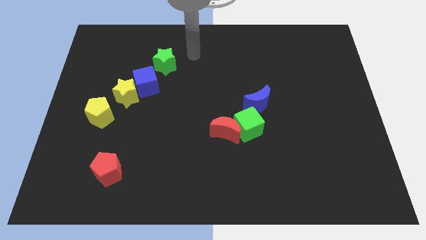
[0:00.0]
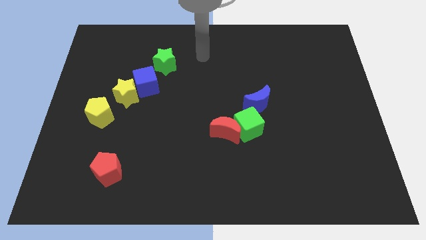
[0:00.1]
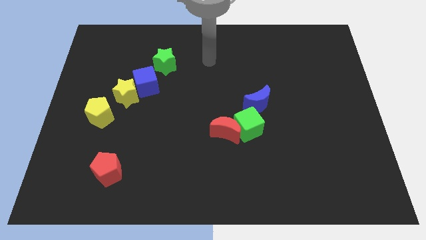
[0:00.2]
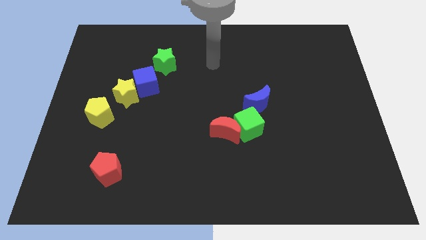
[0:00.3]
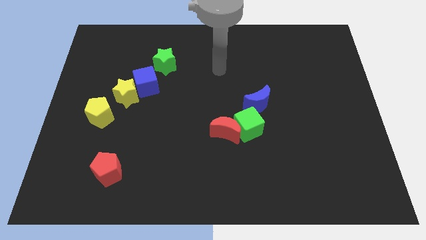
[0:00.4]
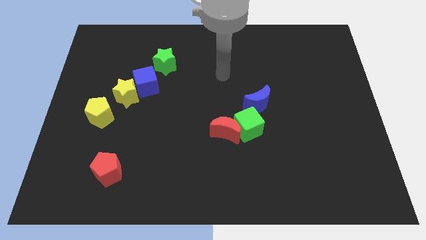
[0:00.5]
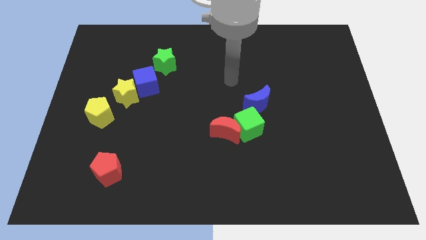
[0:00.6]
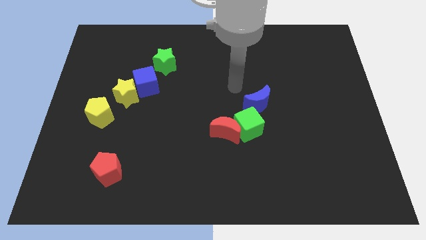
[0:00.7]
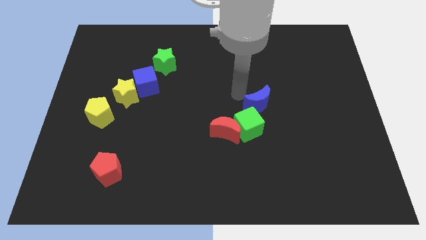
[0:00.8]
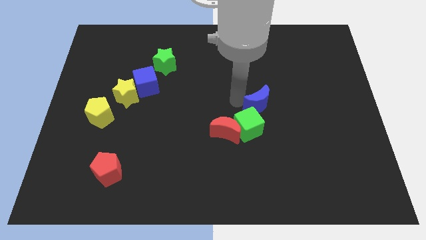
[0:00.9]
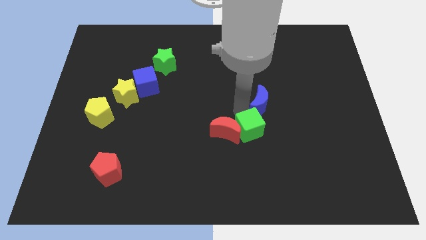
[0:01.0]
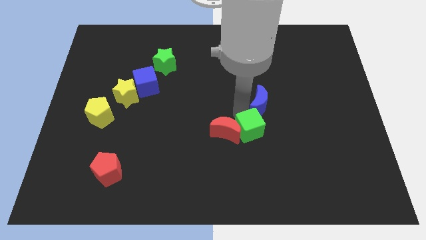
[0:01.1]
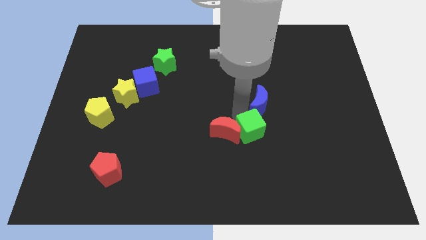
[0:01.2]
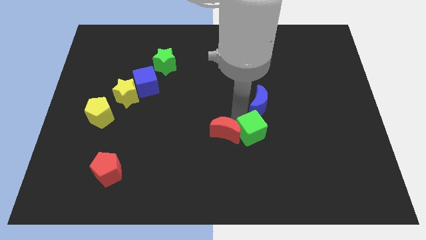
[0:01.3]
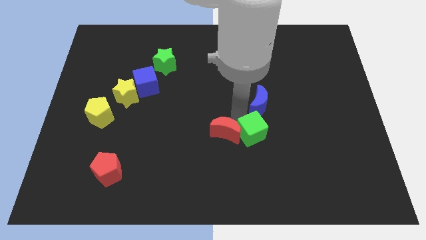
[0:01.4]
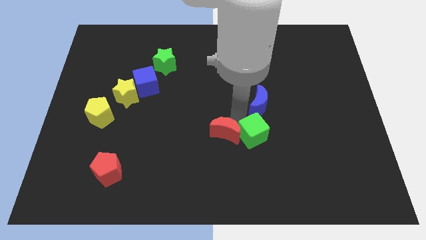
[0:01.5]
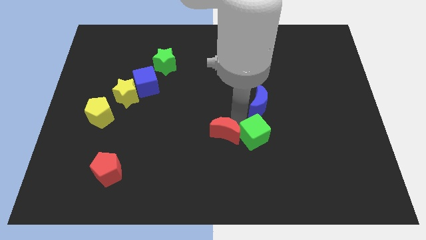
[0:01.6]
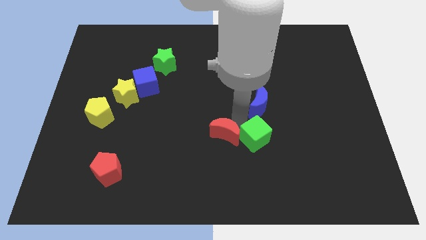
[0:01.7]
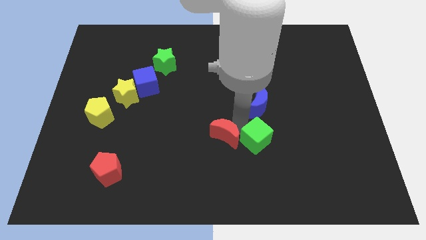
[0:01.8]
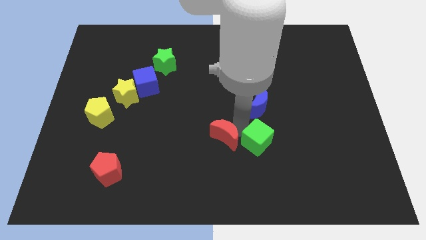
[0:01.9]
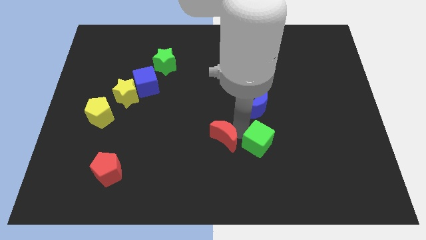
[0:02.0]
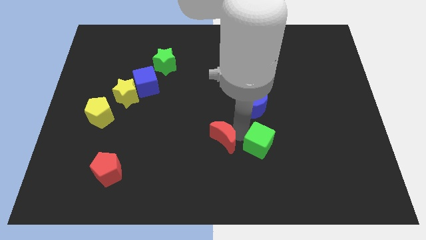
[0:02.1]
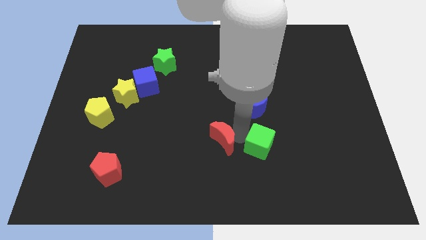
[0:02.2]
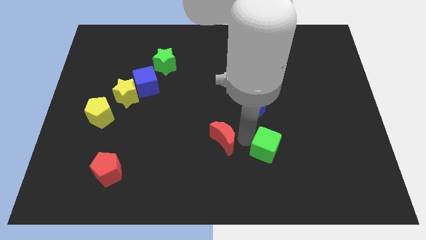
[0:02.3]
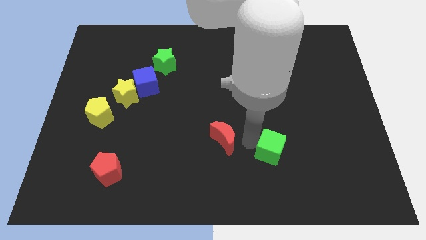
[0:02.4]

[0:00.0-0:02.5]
separate the red moon from the green cube

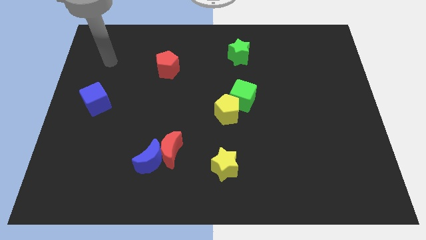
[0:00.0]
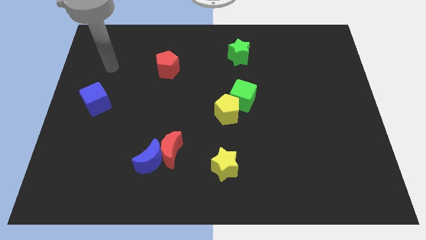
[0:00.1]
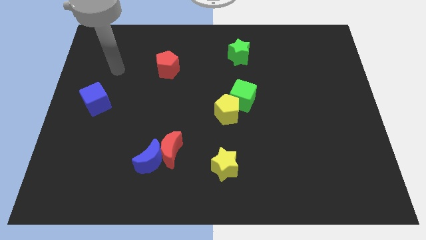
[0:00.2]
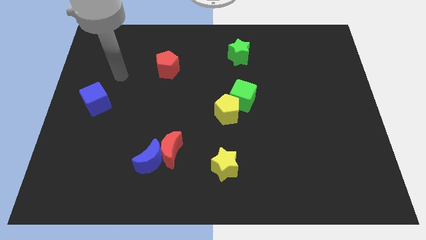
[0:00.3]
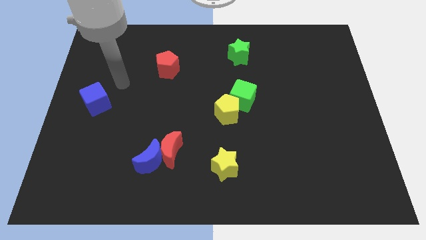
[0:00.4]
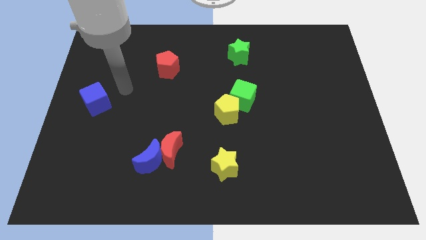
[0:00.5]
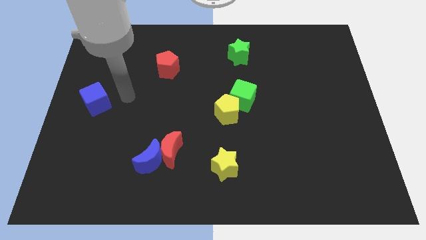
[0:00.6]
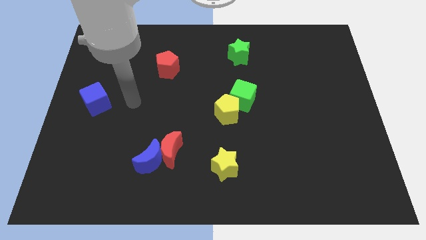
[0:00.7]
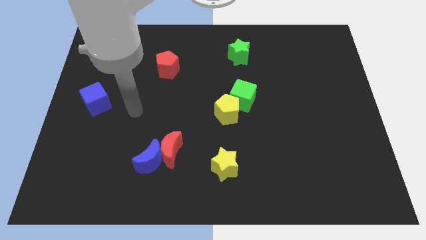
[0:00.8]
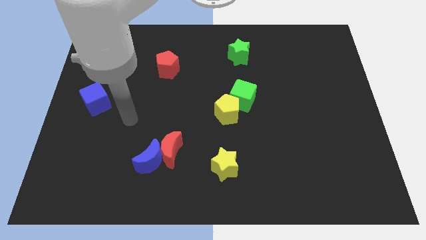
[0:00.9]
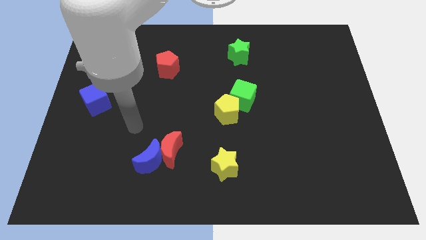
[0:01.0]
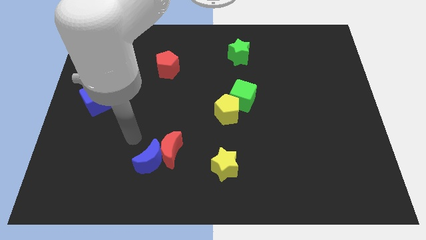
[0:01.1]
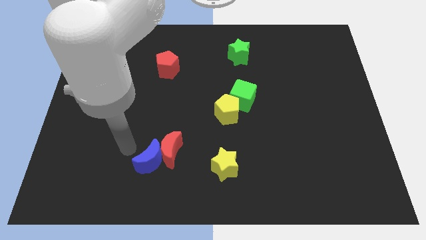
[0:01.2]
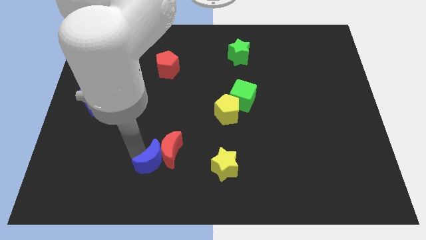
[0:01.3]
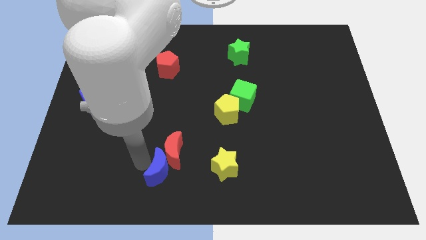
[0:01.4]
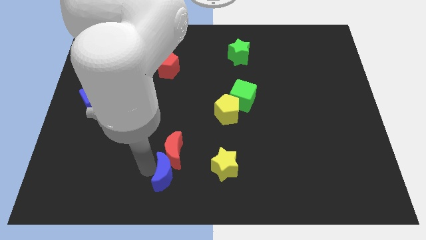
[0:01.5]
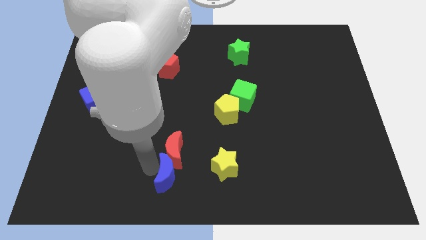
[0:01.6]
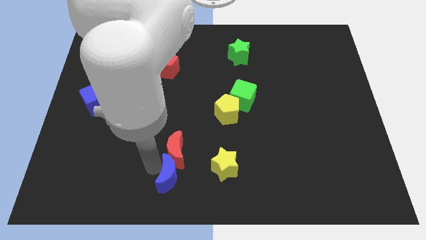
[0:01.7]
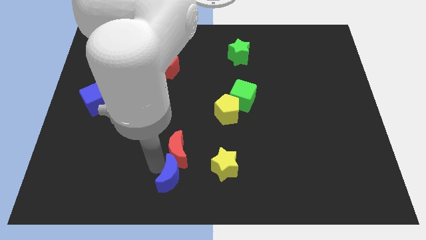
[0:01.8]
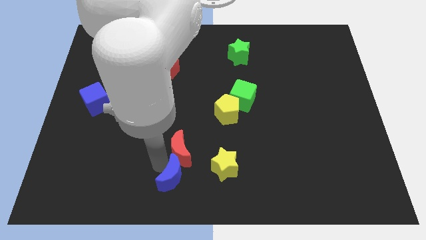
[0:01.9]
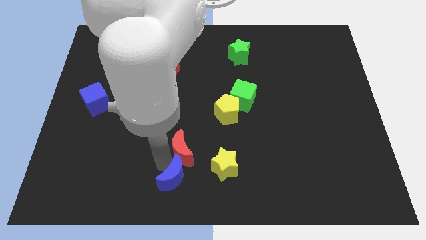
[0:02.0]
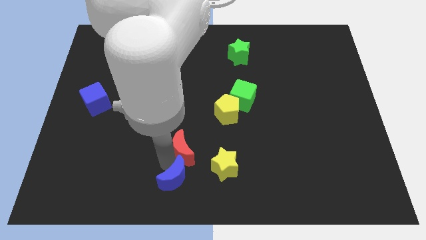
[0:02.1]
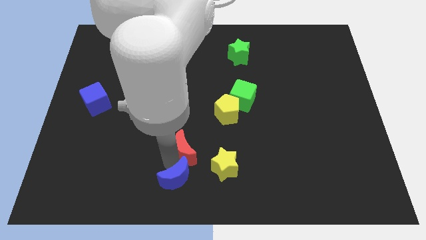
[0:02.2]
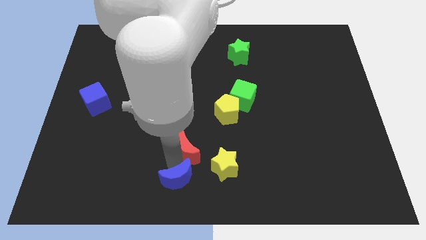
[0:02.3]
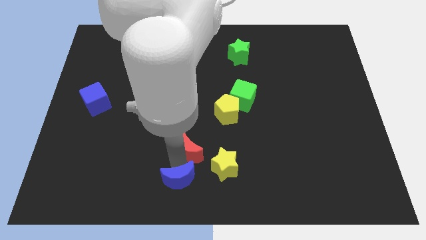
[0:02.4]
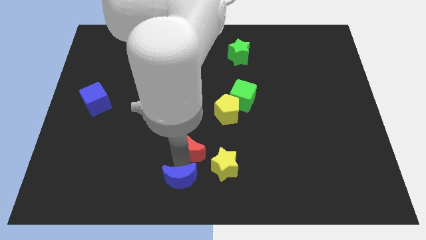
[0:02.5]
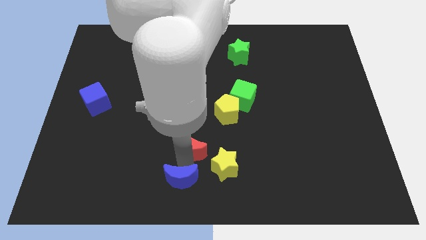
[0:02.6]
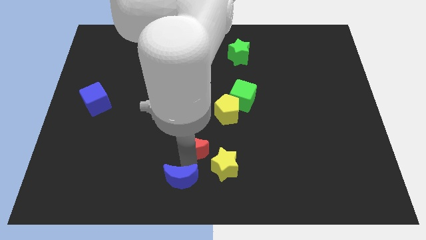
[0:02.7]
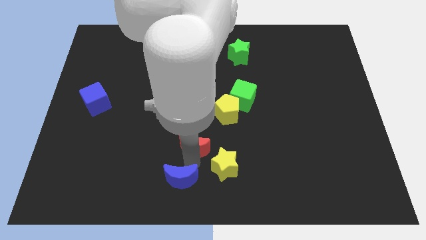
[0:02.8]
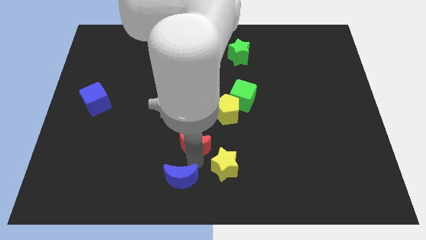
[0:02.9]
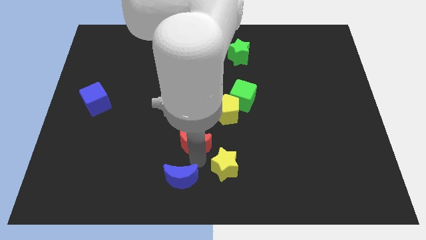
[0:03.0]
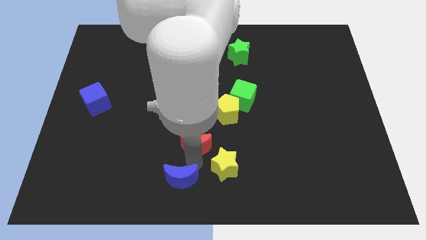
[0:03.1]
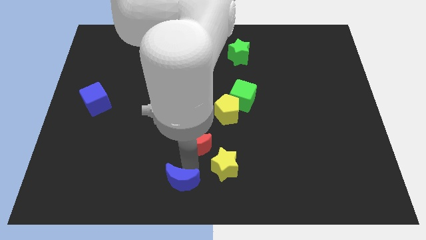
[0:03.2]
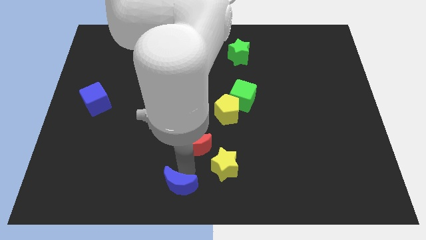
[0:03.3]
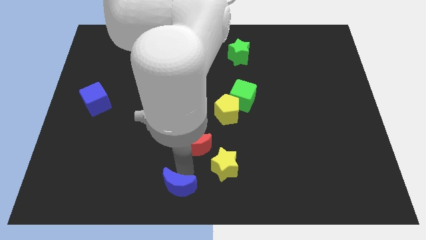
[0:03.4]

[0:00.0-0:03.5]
move the red moon away from the blue moon

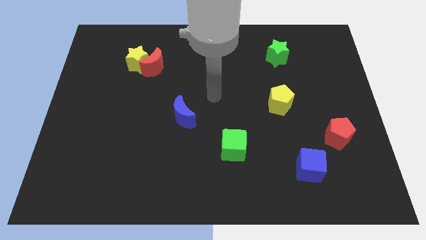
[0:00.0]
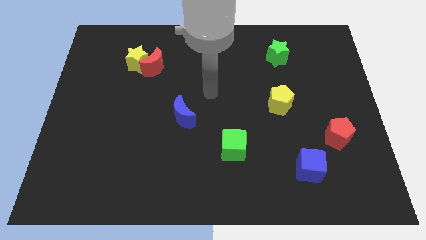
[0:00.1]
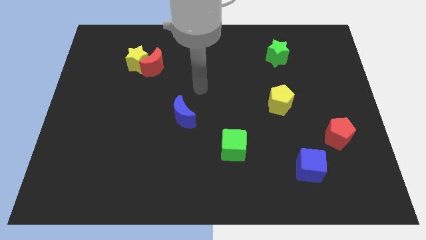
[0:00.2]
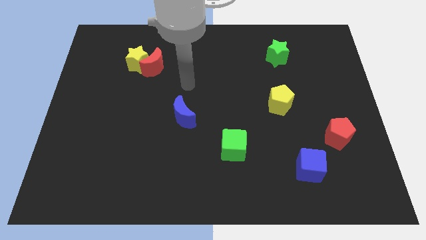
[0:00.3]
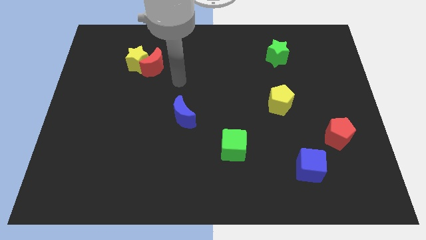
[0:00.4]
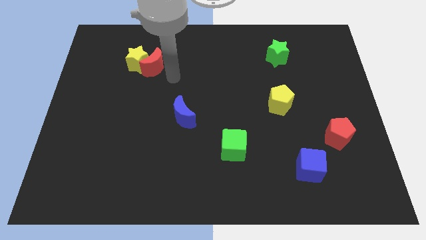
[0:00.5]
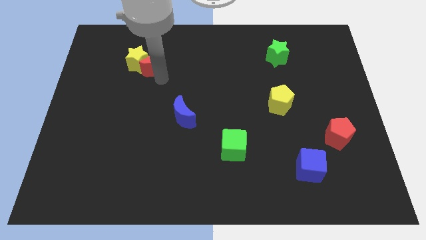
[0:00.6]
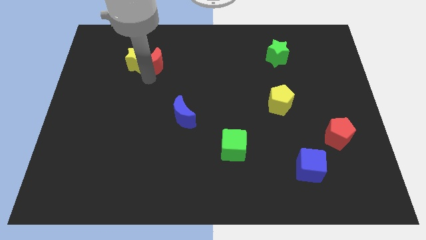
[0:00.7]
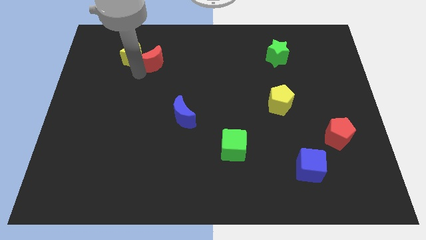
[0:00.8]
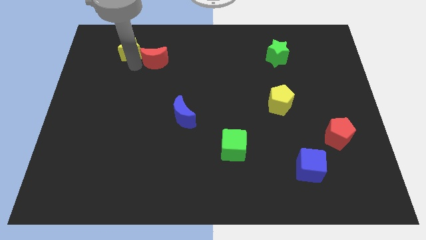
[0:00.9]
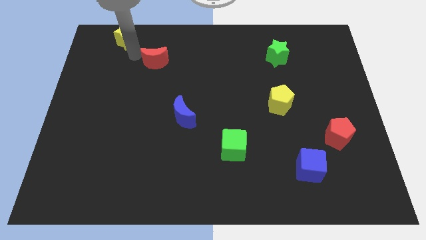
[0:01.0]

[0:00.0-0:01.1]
move the red moon away from the yellow star

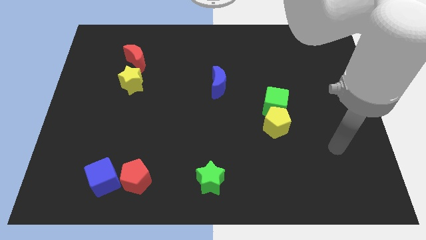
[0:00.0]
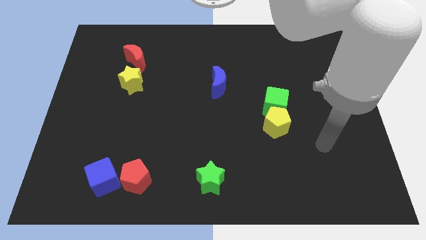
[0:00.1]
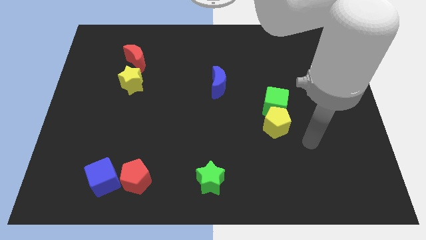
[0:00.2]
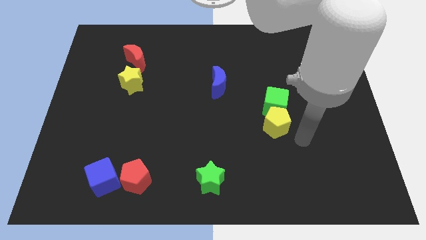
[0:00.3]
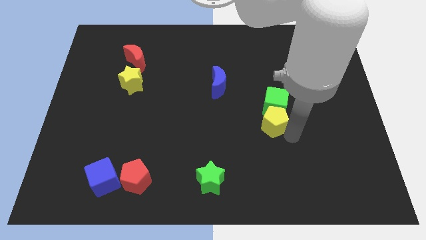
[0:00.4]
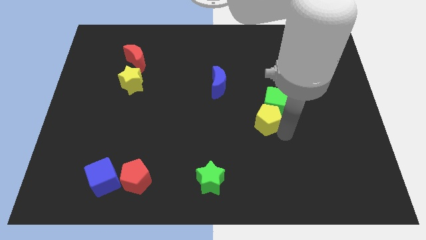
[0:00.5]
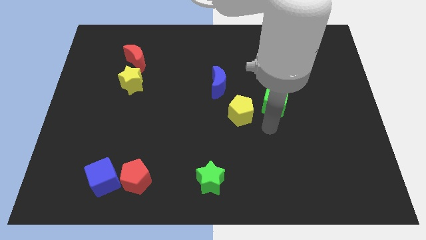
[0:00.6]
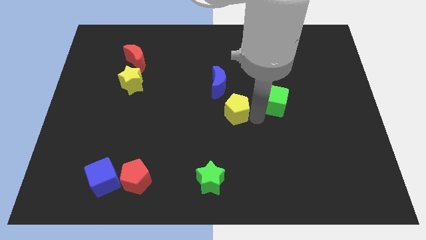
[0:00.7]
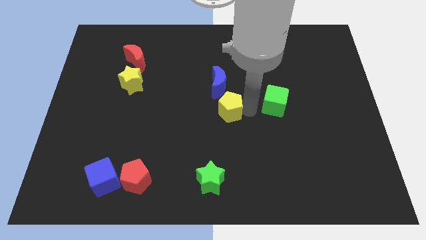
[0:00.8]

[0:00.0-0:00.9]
pull the green cube apart from the yellow pentagon

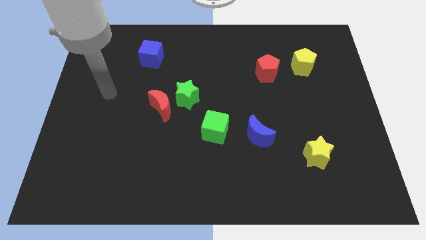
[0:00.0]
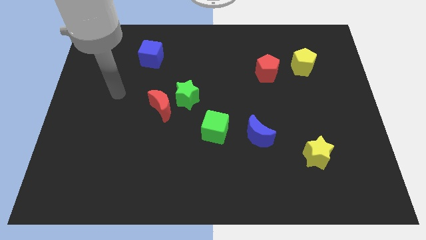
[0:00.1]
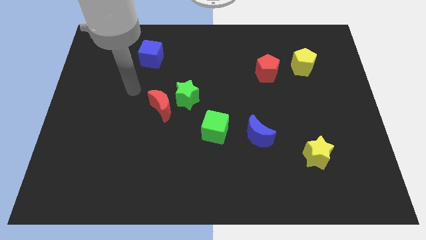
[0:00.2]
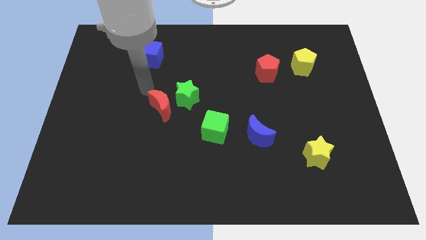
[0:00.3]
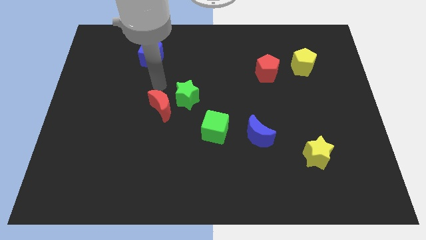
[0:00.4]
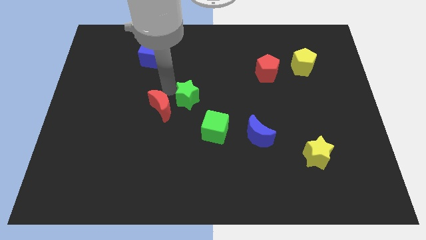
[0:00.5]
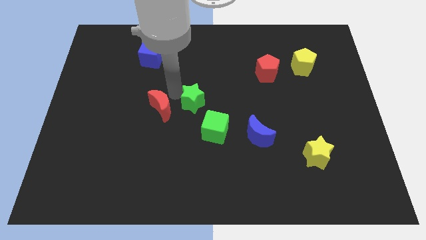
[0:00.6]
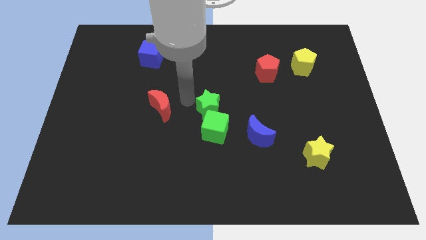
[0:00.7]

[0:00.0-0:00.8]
move the red moon away from the green star

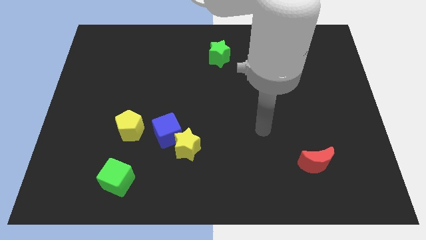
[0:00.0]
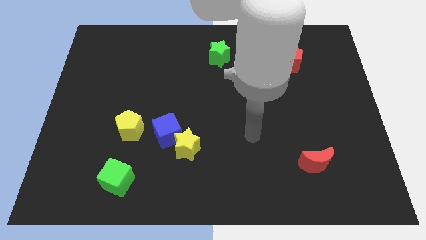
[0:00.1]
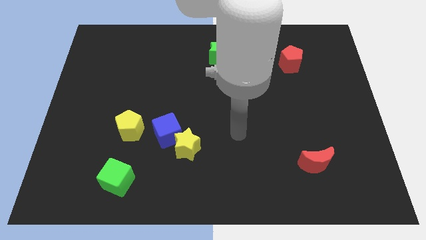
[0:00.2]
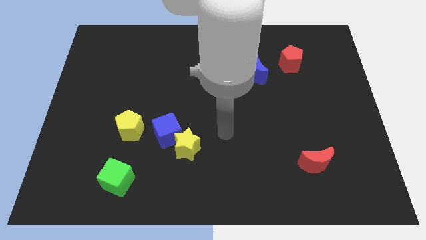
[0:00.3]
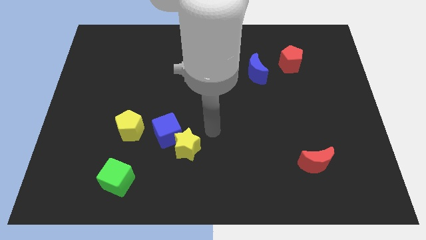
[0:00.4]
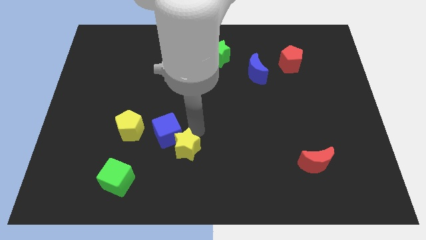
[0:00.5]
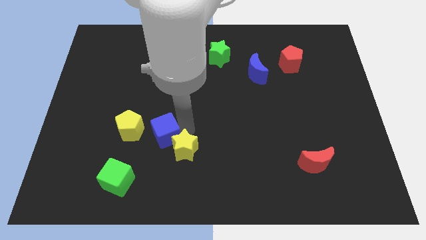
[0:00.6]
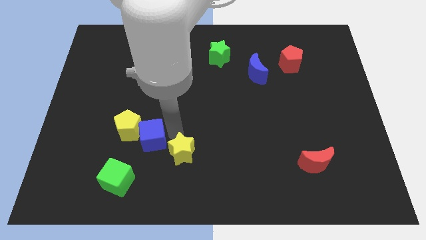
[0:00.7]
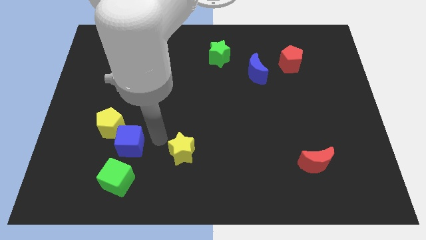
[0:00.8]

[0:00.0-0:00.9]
move the yellow star away from the blue cube
